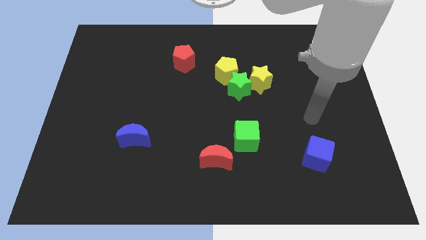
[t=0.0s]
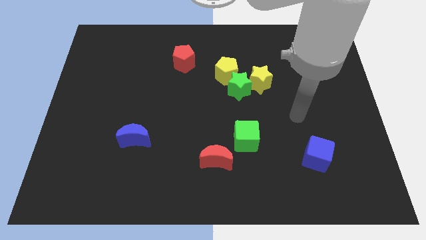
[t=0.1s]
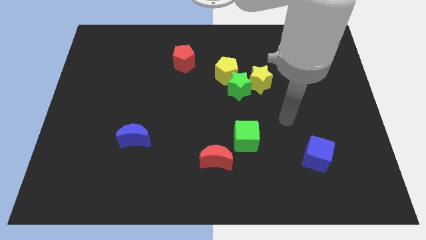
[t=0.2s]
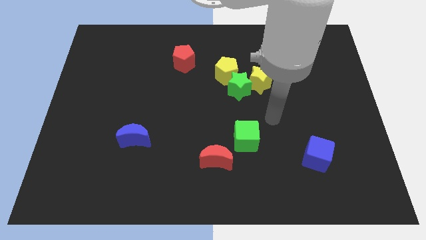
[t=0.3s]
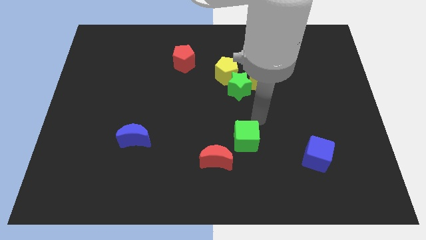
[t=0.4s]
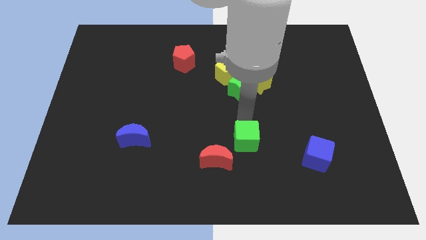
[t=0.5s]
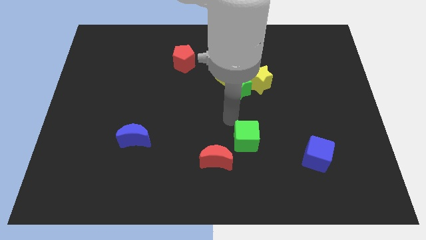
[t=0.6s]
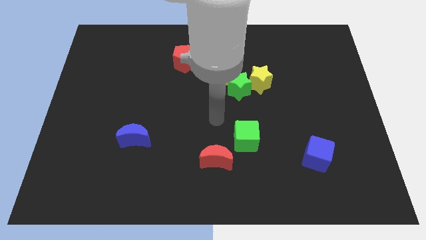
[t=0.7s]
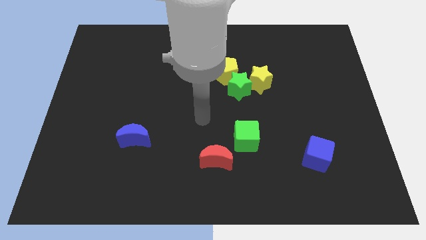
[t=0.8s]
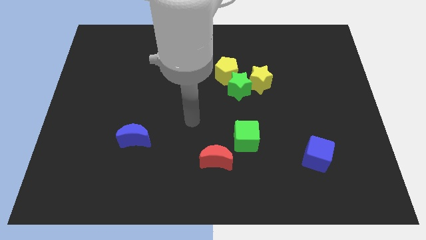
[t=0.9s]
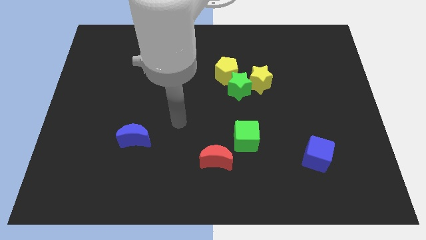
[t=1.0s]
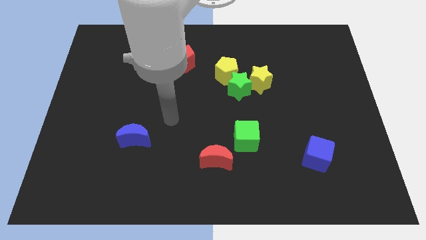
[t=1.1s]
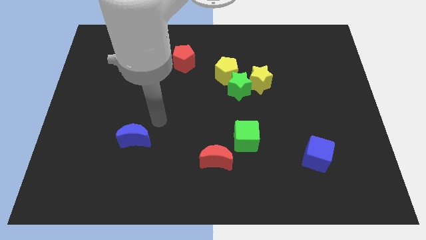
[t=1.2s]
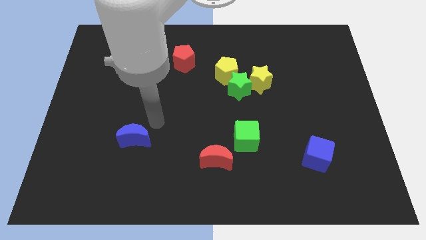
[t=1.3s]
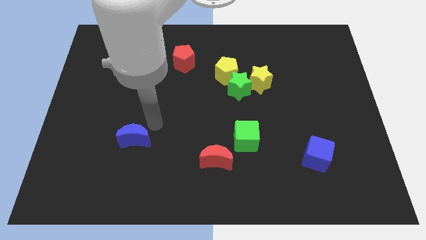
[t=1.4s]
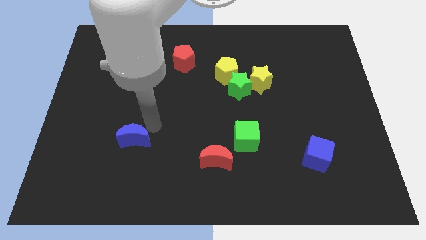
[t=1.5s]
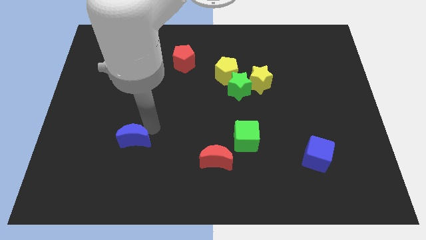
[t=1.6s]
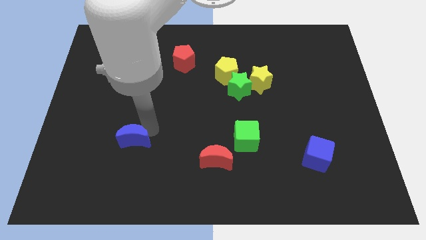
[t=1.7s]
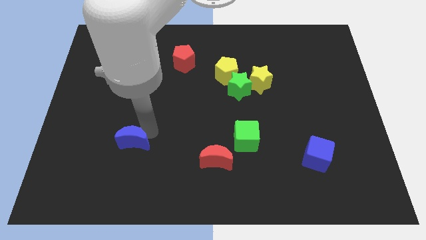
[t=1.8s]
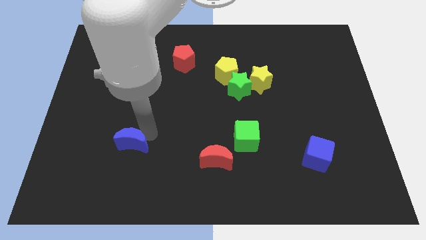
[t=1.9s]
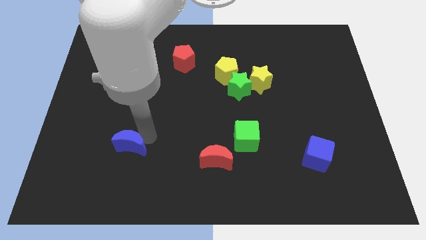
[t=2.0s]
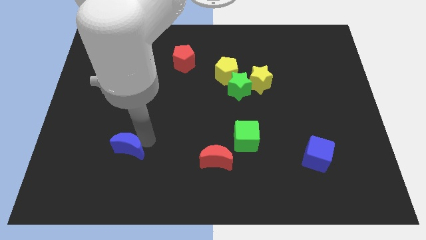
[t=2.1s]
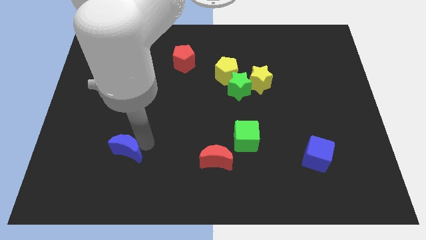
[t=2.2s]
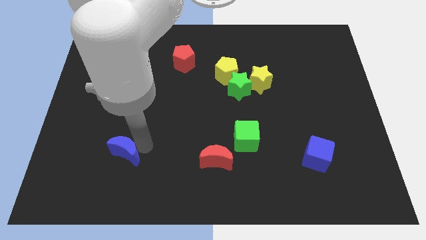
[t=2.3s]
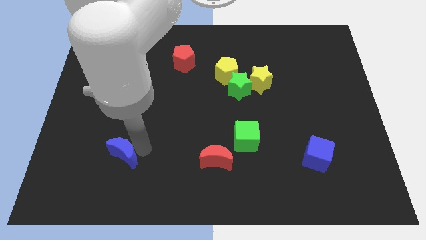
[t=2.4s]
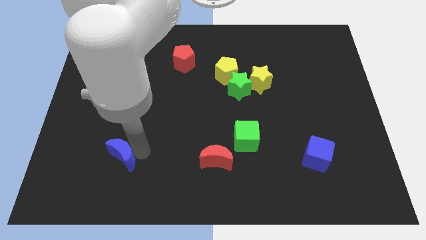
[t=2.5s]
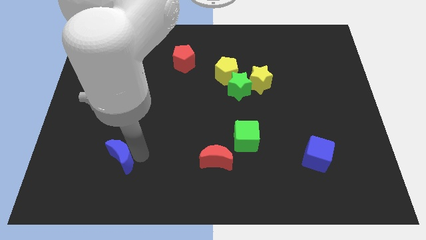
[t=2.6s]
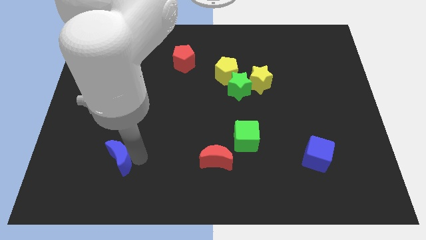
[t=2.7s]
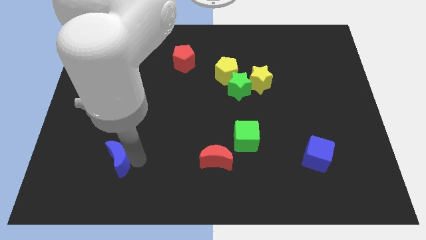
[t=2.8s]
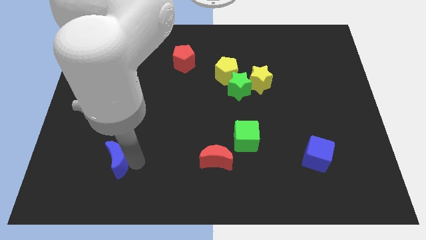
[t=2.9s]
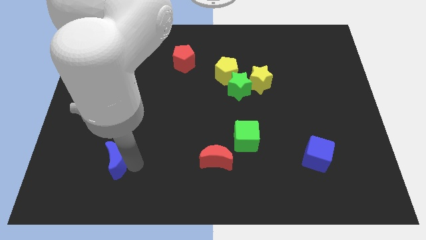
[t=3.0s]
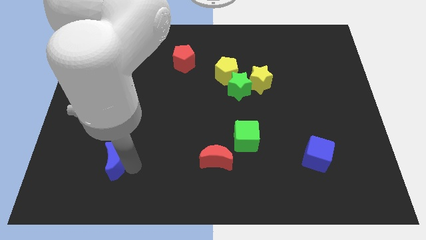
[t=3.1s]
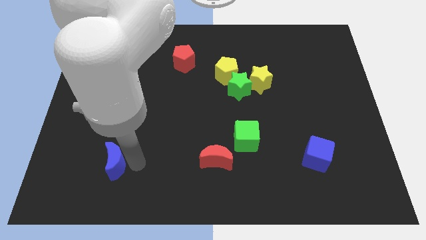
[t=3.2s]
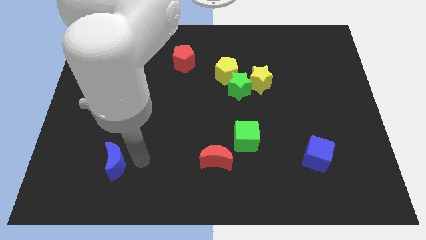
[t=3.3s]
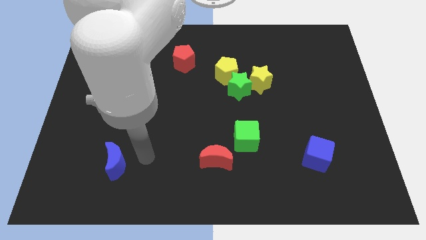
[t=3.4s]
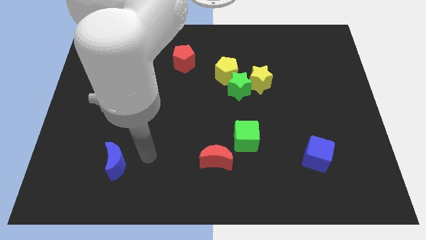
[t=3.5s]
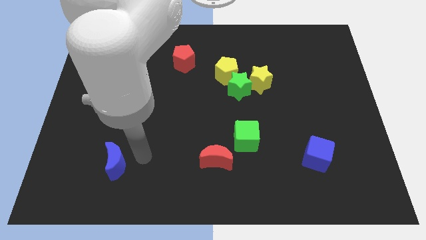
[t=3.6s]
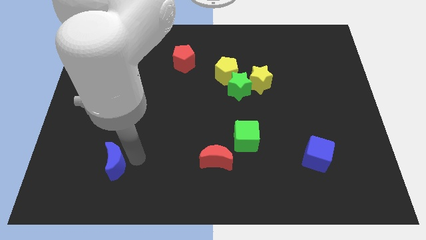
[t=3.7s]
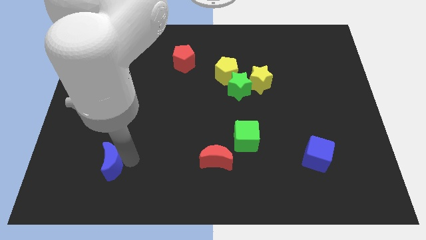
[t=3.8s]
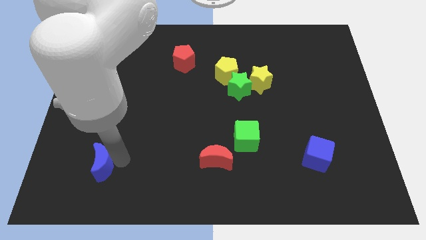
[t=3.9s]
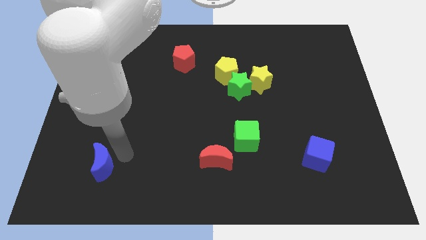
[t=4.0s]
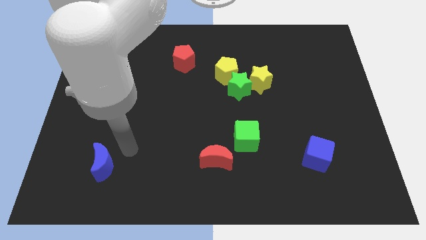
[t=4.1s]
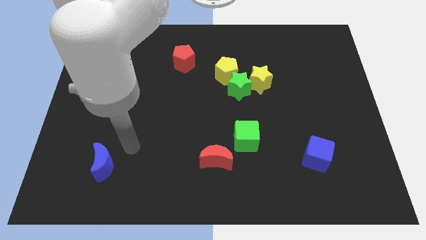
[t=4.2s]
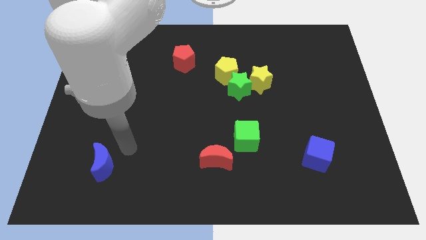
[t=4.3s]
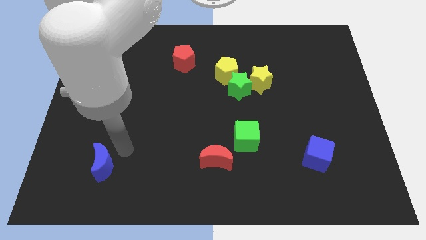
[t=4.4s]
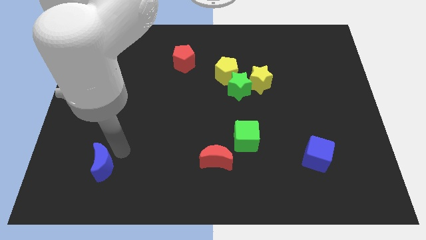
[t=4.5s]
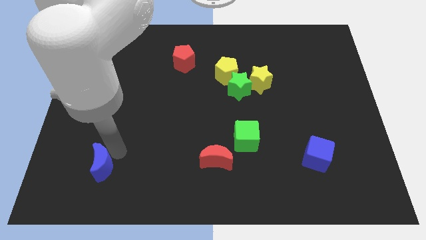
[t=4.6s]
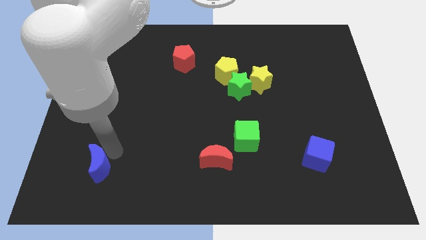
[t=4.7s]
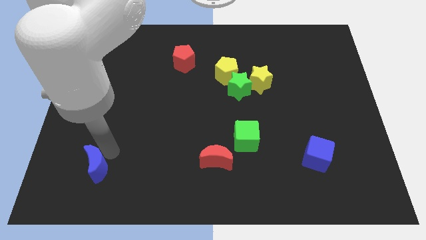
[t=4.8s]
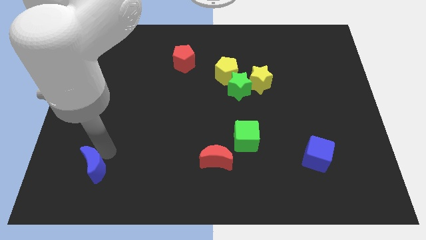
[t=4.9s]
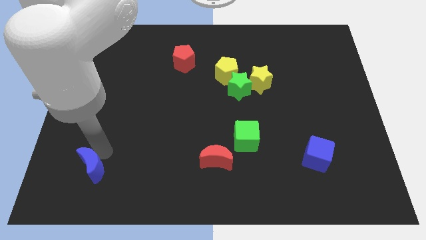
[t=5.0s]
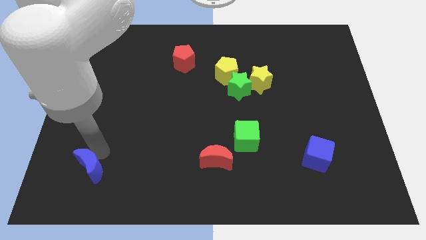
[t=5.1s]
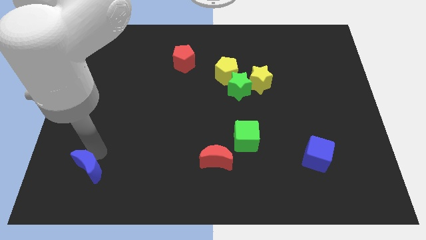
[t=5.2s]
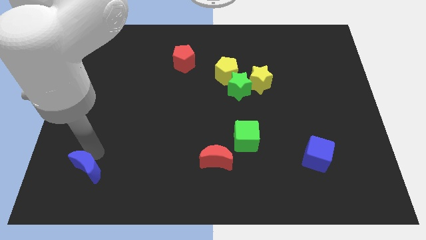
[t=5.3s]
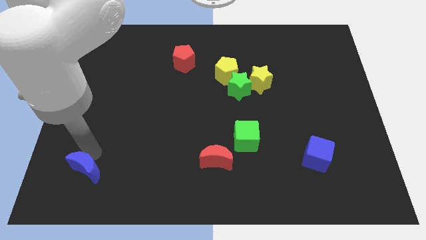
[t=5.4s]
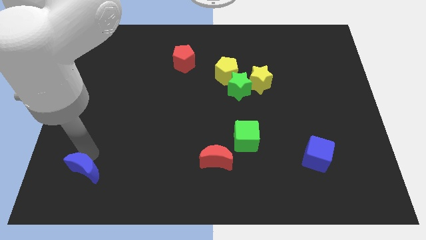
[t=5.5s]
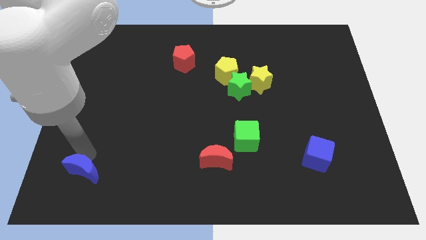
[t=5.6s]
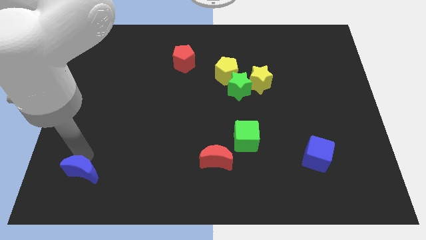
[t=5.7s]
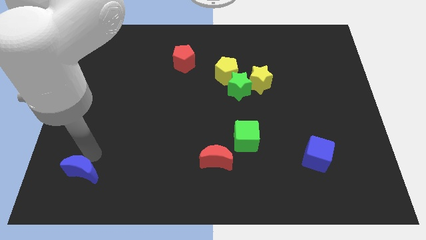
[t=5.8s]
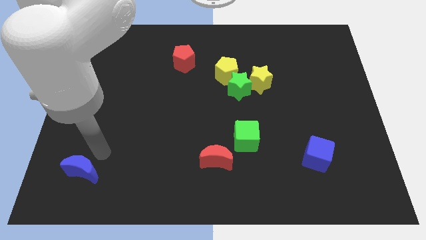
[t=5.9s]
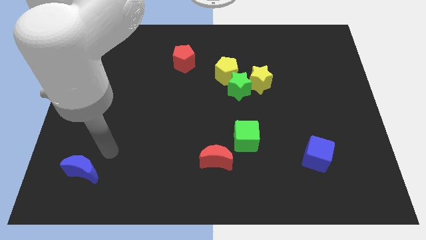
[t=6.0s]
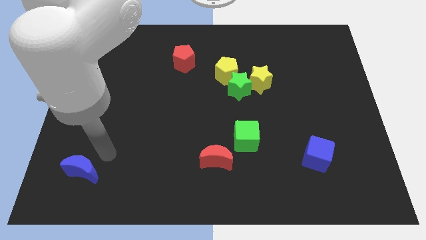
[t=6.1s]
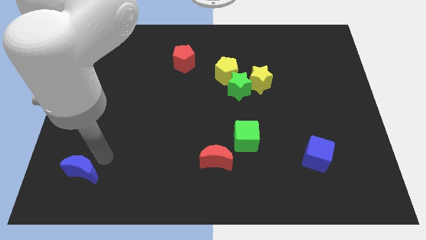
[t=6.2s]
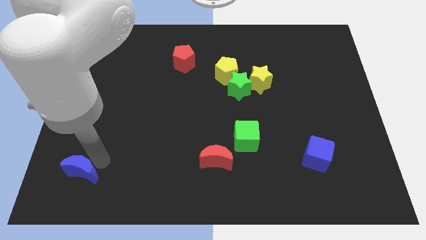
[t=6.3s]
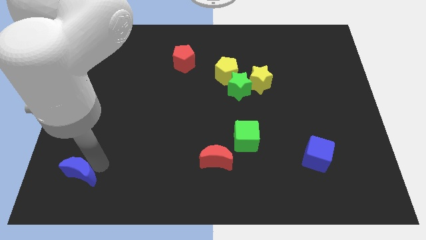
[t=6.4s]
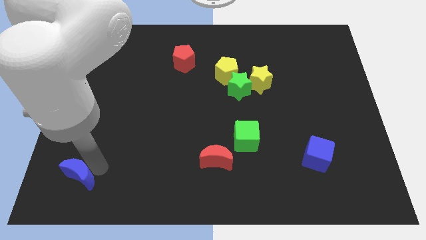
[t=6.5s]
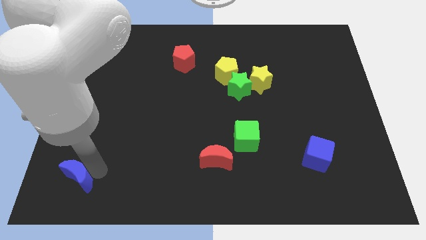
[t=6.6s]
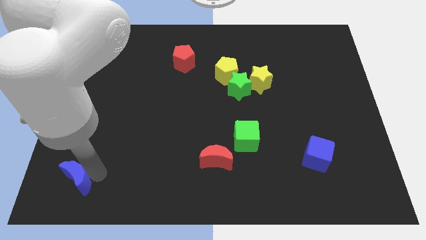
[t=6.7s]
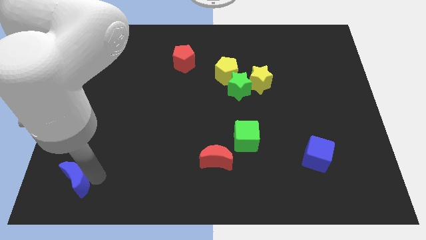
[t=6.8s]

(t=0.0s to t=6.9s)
put the blue moon to the bottom left
